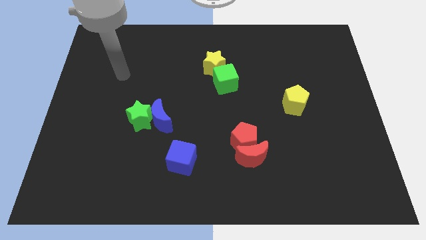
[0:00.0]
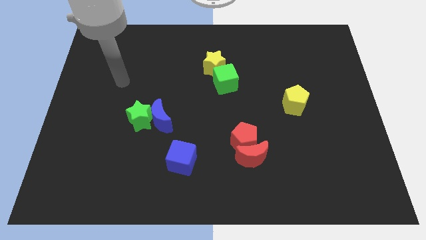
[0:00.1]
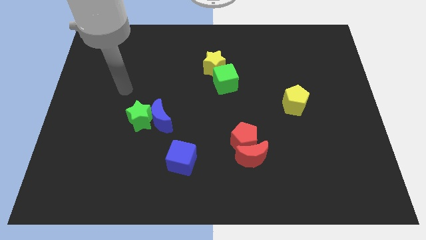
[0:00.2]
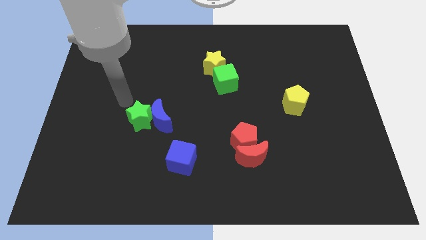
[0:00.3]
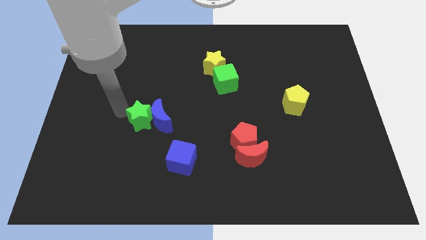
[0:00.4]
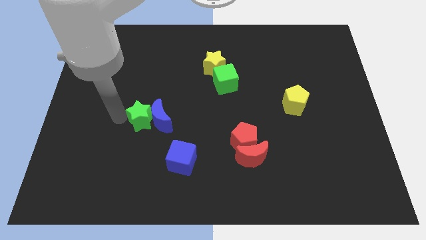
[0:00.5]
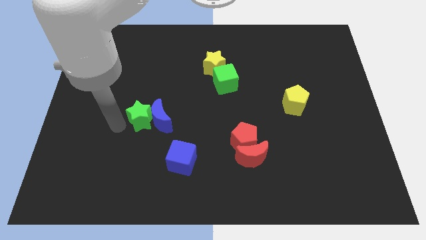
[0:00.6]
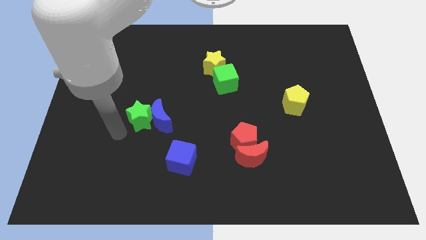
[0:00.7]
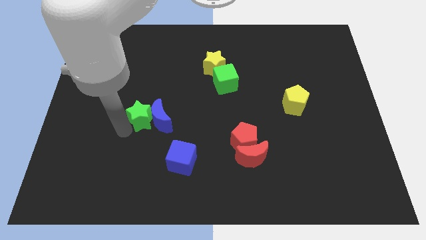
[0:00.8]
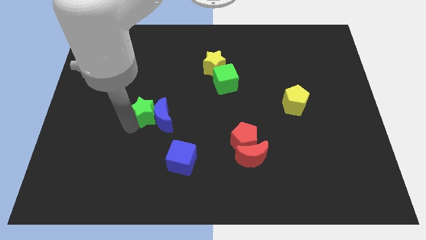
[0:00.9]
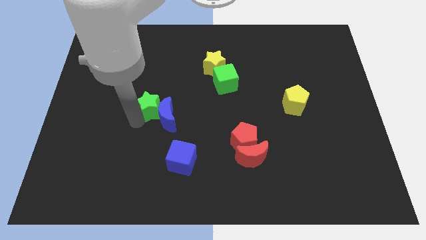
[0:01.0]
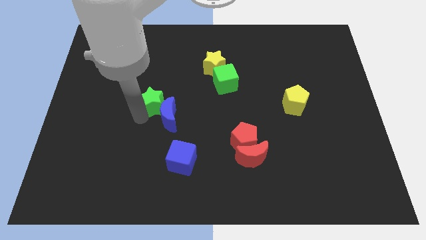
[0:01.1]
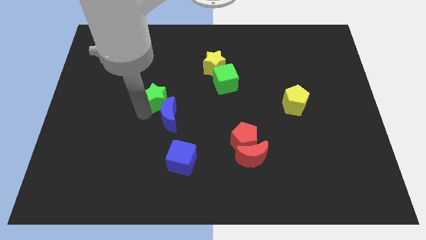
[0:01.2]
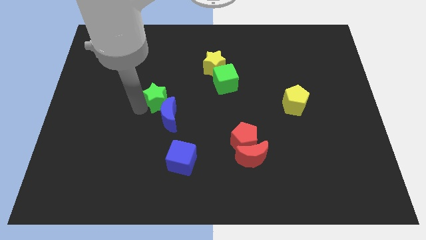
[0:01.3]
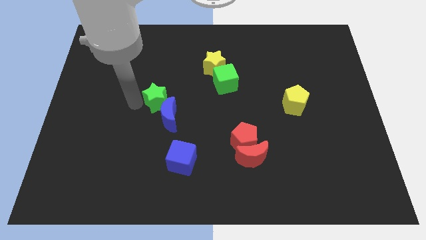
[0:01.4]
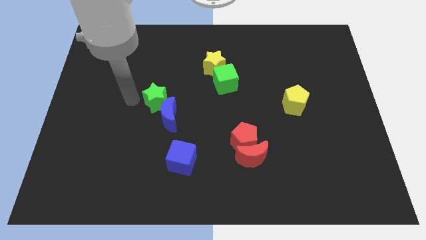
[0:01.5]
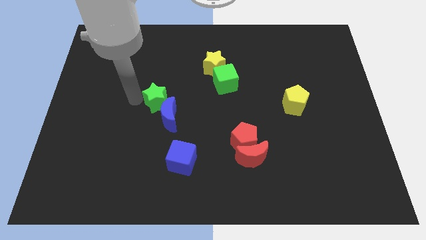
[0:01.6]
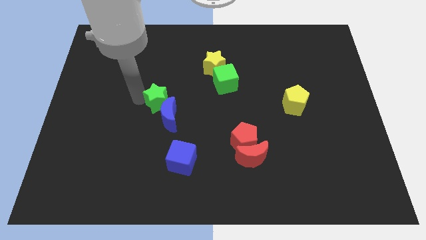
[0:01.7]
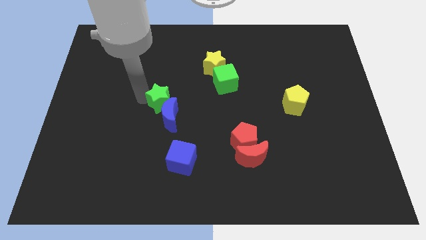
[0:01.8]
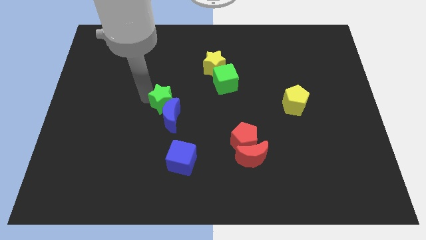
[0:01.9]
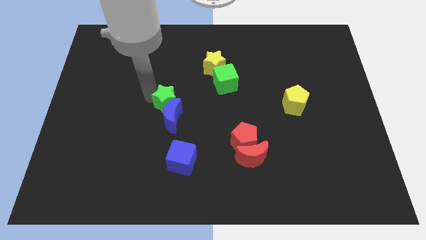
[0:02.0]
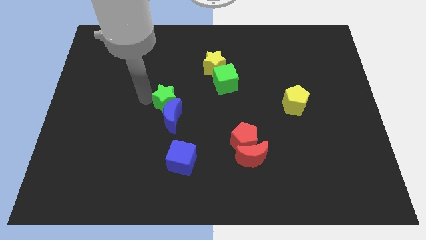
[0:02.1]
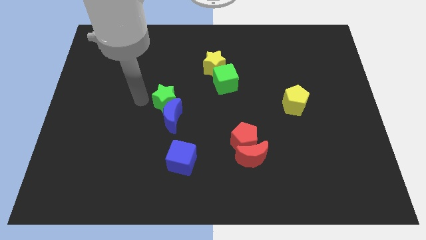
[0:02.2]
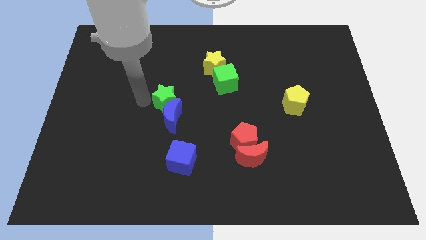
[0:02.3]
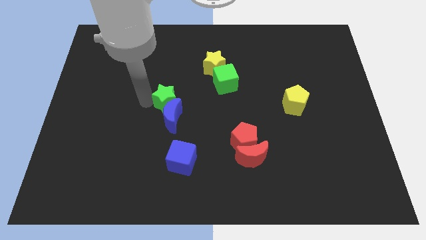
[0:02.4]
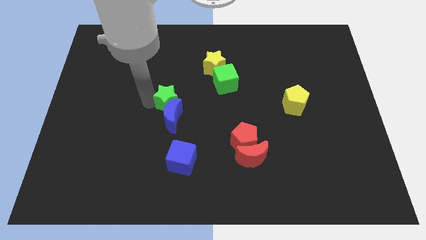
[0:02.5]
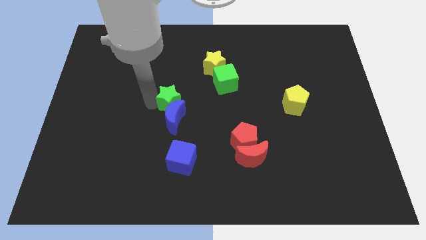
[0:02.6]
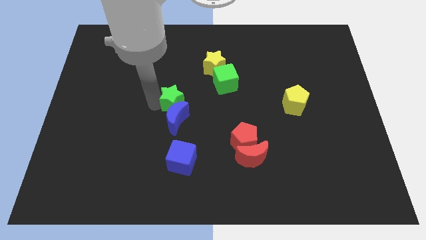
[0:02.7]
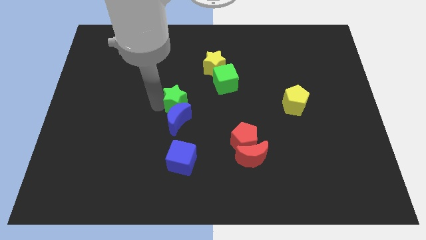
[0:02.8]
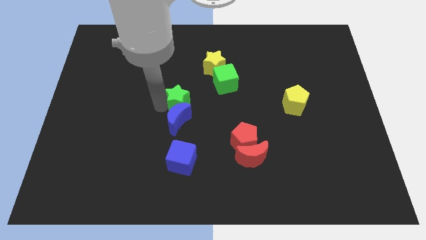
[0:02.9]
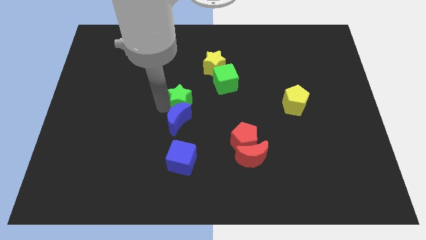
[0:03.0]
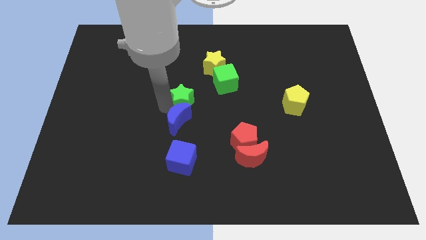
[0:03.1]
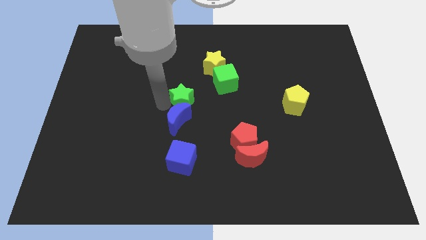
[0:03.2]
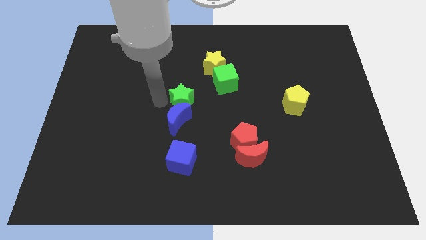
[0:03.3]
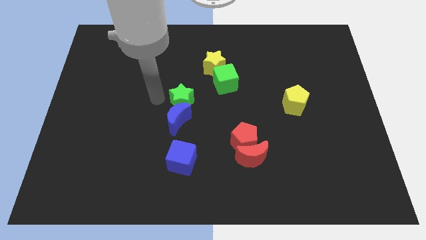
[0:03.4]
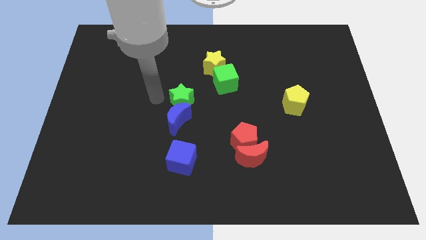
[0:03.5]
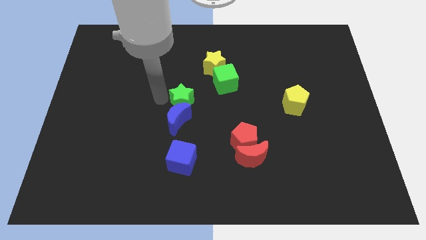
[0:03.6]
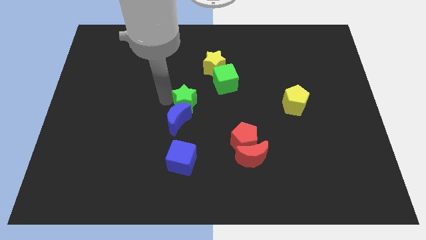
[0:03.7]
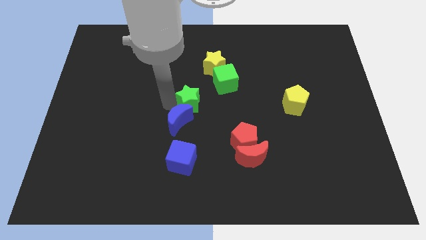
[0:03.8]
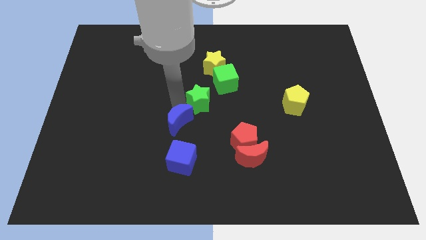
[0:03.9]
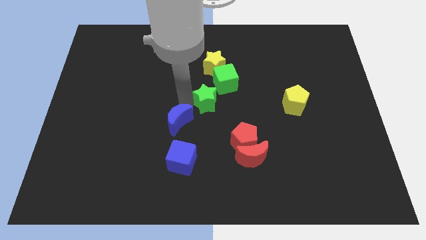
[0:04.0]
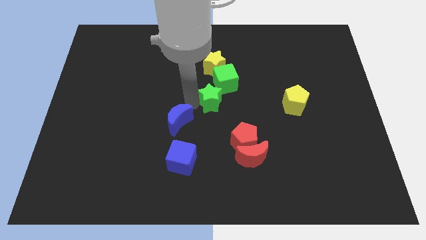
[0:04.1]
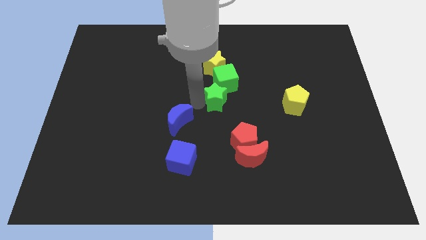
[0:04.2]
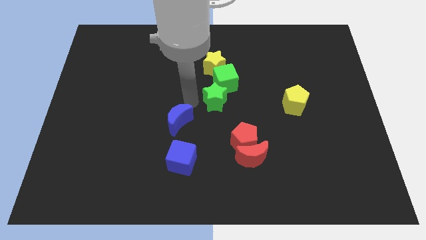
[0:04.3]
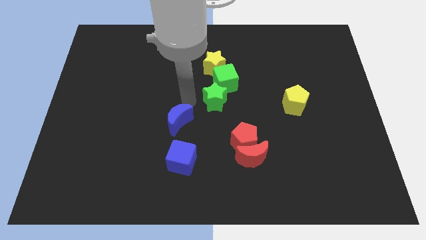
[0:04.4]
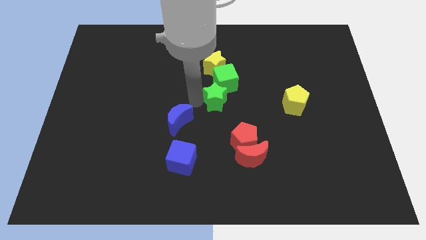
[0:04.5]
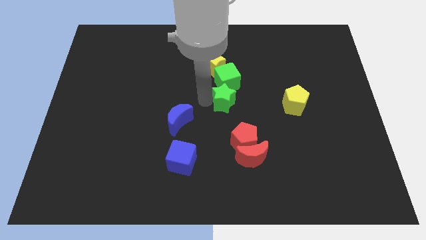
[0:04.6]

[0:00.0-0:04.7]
slide the green star diagonally down and to the right of the green cube

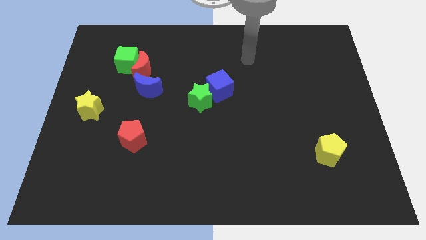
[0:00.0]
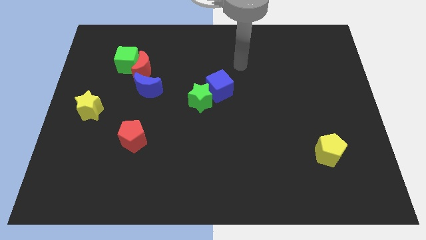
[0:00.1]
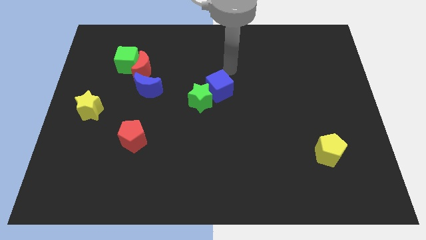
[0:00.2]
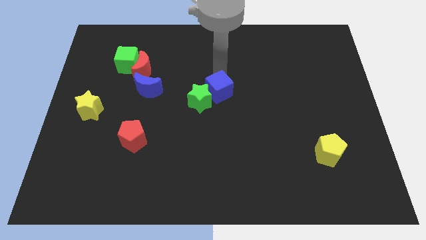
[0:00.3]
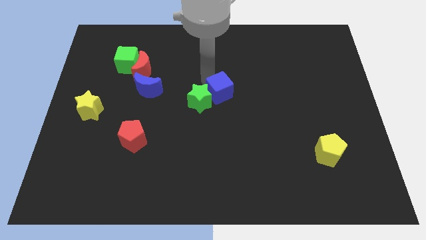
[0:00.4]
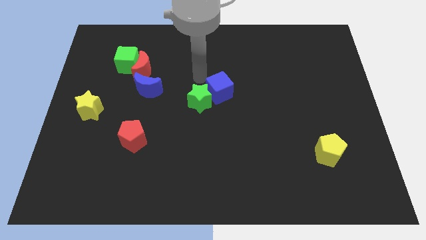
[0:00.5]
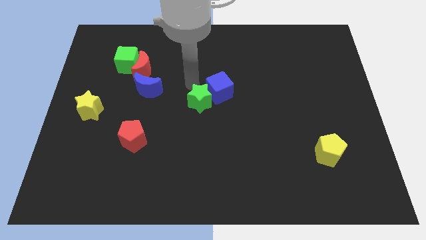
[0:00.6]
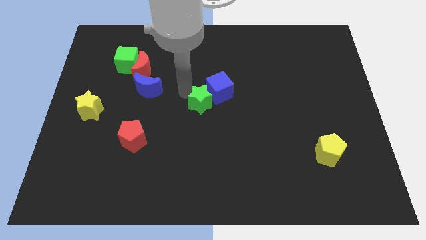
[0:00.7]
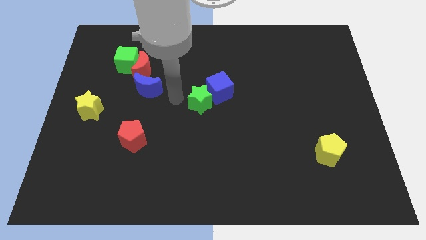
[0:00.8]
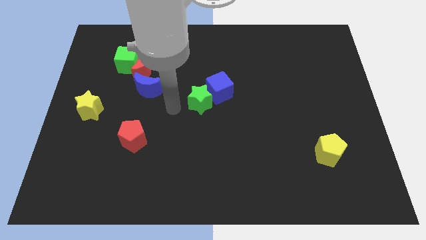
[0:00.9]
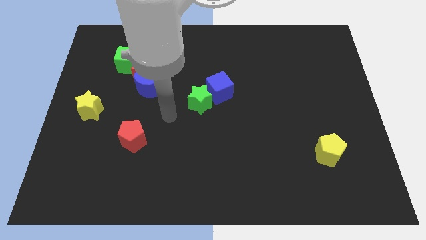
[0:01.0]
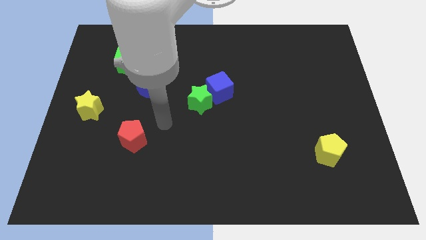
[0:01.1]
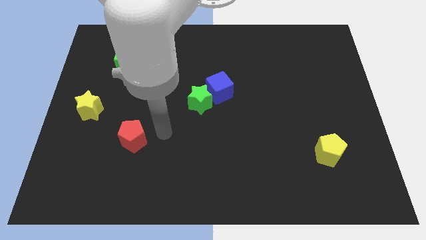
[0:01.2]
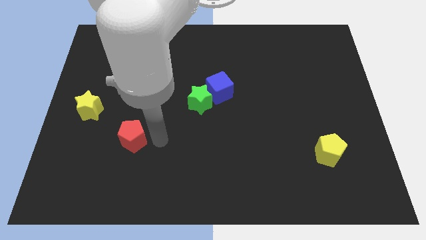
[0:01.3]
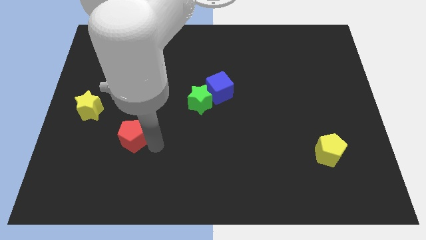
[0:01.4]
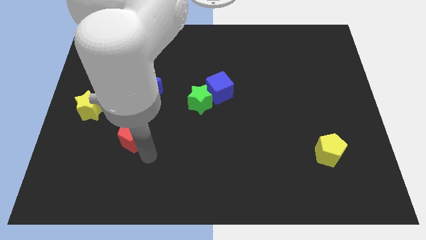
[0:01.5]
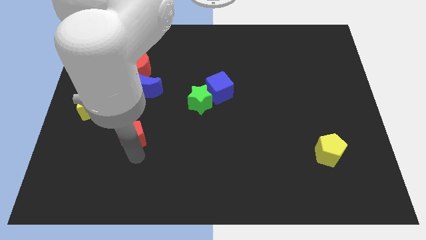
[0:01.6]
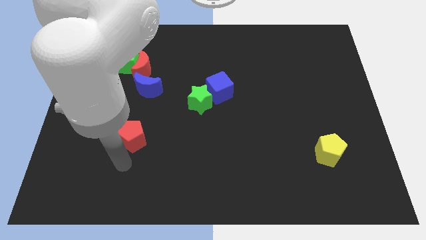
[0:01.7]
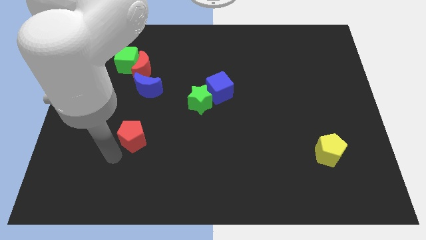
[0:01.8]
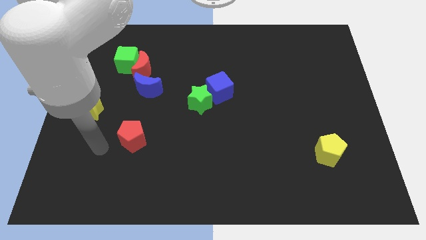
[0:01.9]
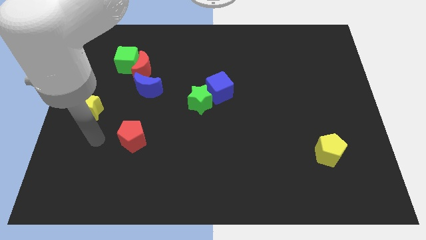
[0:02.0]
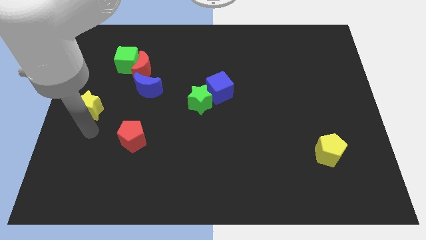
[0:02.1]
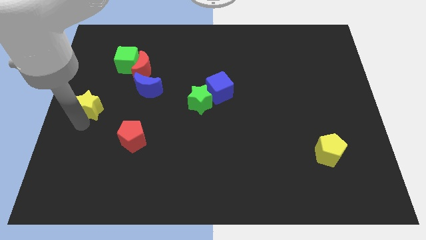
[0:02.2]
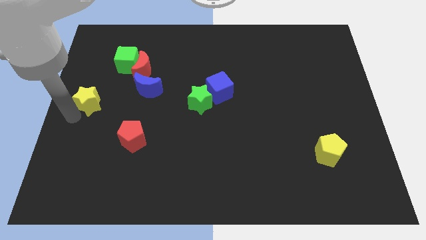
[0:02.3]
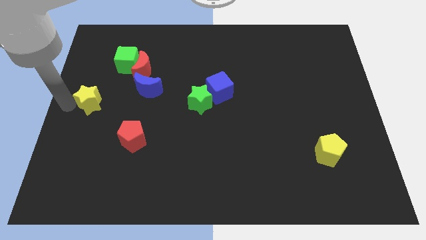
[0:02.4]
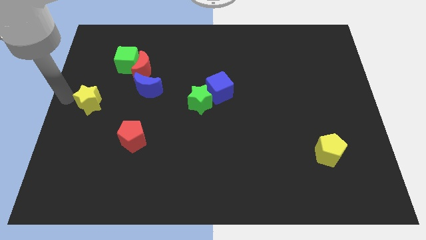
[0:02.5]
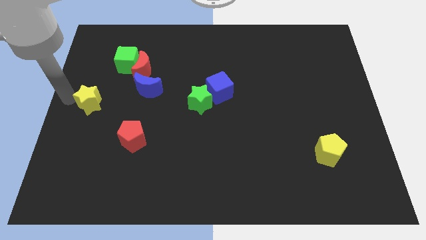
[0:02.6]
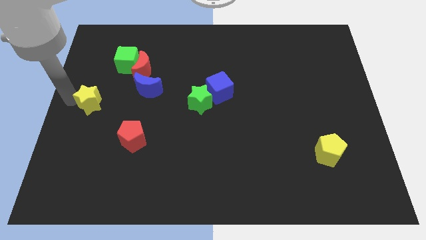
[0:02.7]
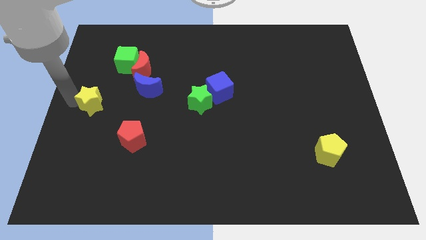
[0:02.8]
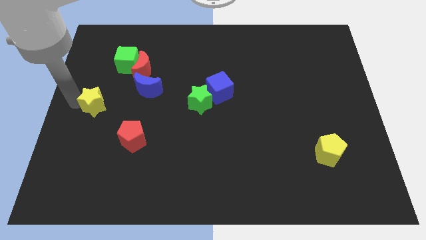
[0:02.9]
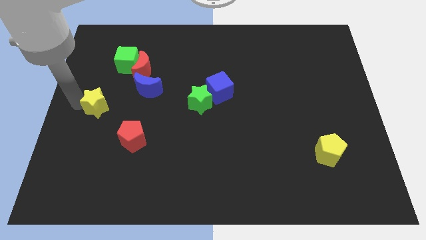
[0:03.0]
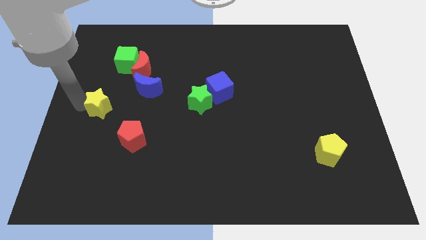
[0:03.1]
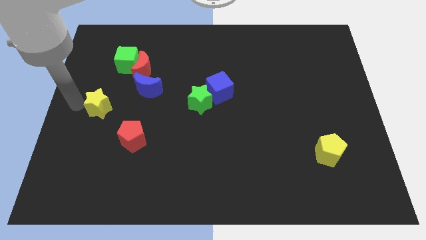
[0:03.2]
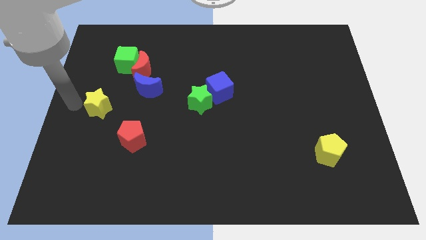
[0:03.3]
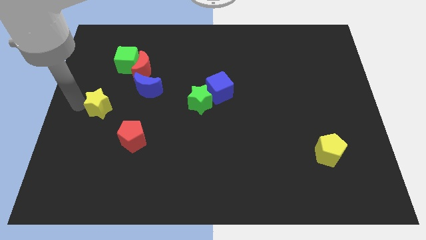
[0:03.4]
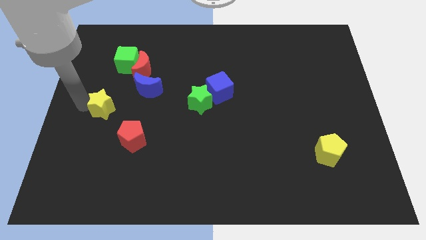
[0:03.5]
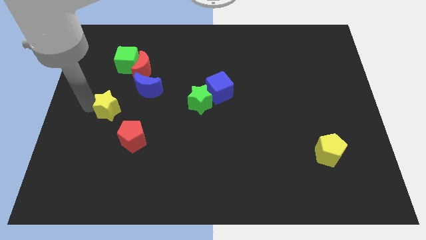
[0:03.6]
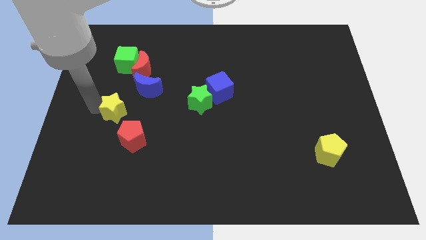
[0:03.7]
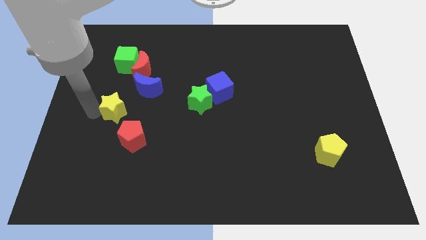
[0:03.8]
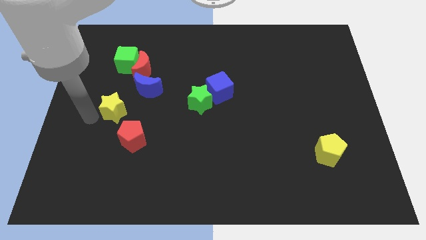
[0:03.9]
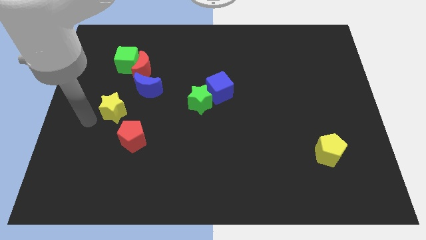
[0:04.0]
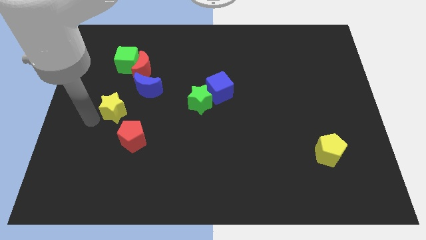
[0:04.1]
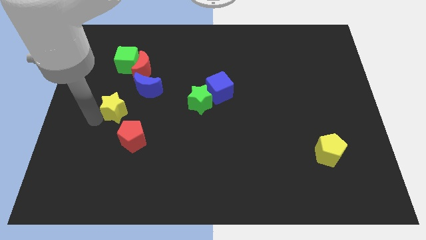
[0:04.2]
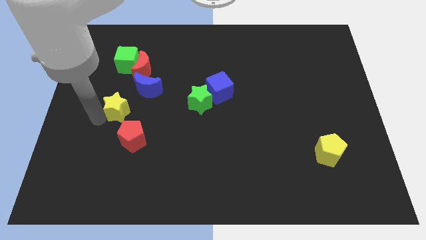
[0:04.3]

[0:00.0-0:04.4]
put the yellow star to the top side of the red pentagon
